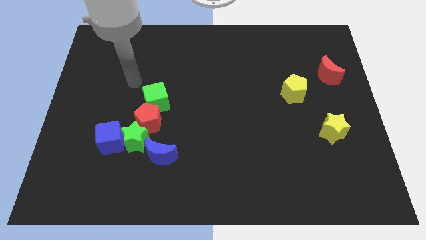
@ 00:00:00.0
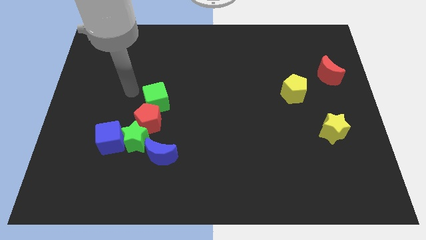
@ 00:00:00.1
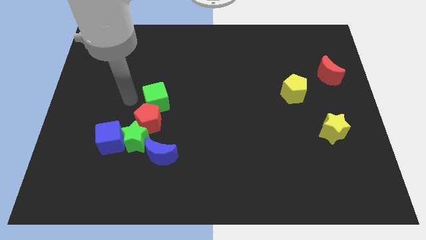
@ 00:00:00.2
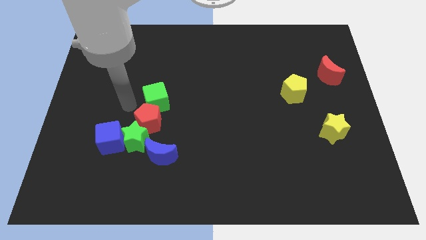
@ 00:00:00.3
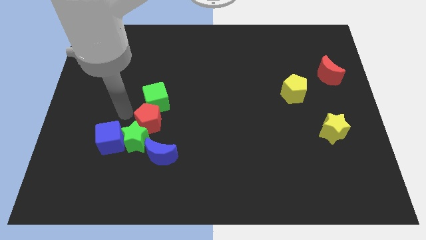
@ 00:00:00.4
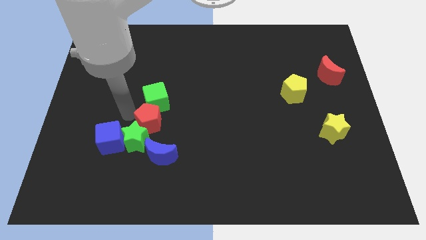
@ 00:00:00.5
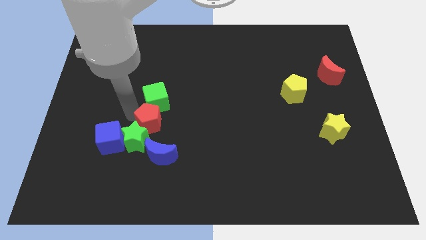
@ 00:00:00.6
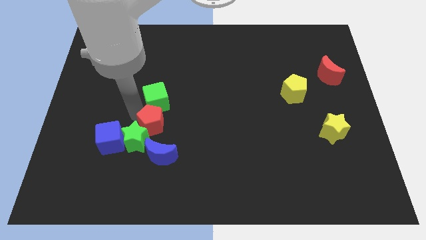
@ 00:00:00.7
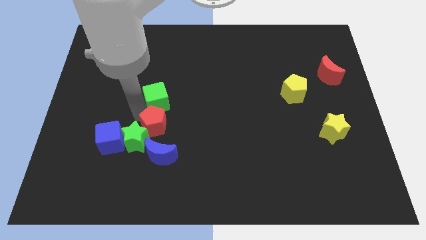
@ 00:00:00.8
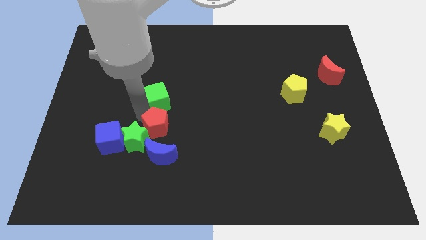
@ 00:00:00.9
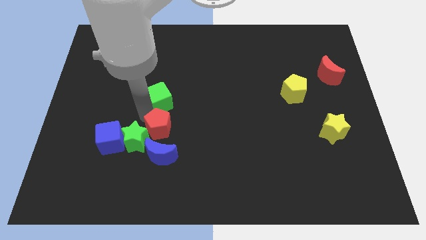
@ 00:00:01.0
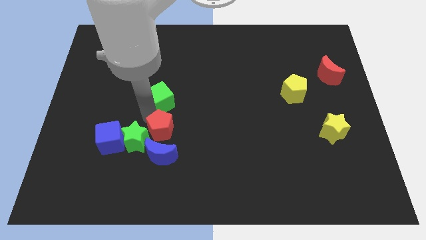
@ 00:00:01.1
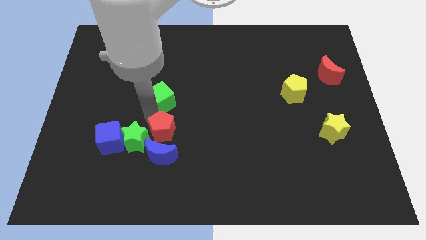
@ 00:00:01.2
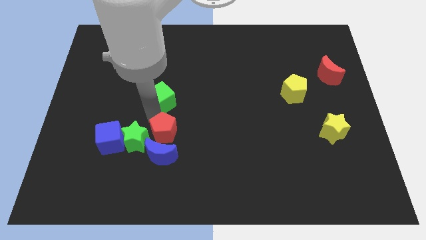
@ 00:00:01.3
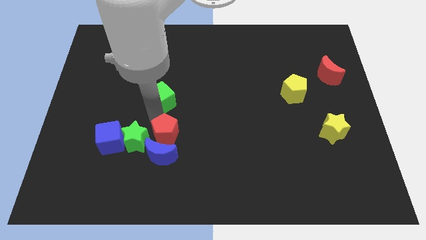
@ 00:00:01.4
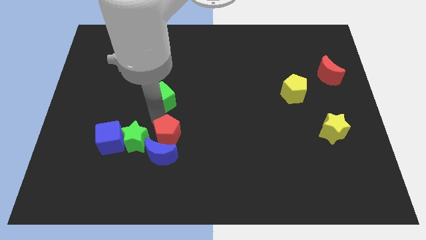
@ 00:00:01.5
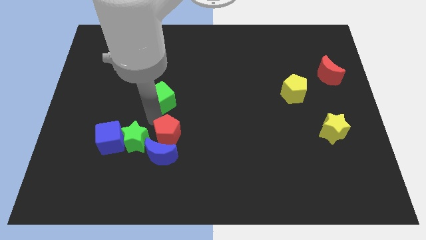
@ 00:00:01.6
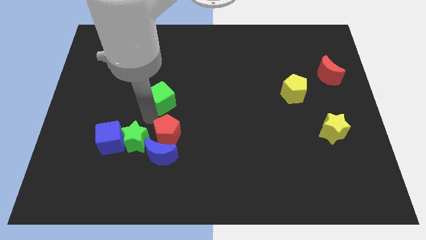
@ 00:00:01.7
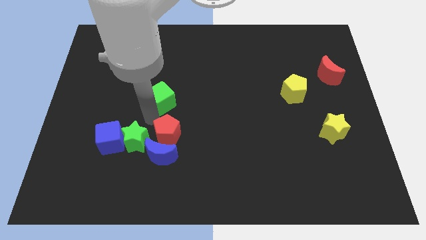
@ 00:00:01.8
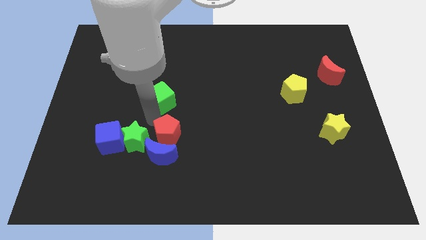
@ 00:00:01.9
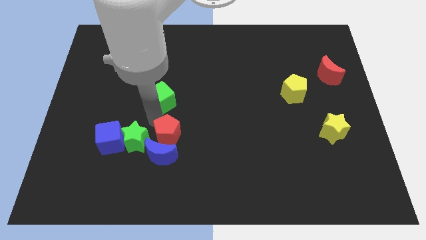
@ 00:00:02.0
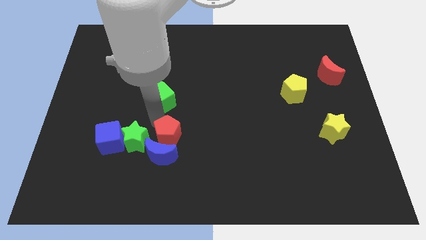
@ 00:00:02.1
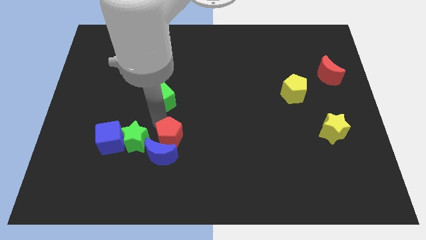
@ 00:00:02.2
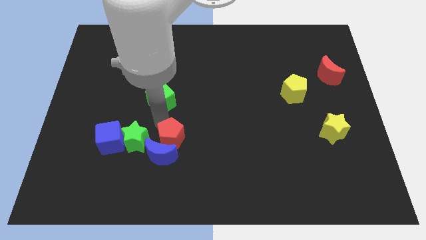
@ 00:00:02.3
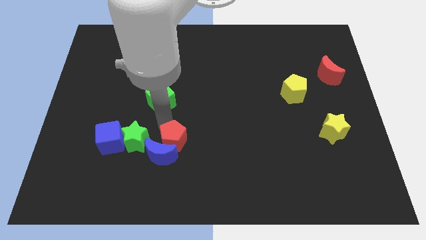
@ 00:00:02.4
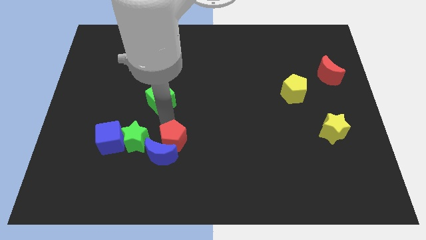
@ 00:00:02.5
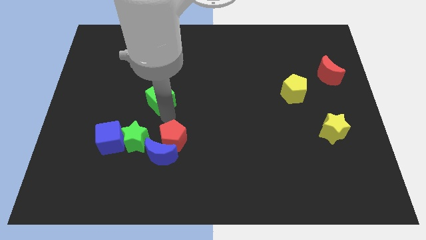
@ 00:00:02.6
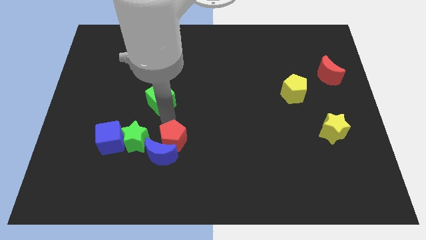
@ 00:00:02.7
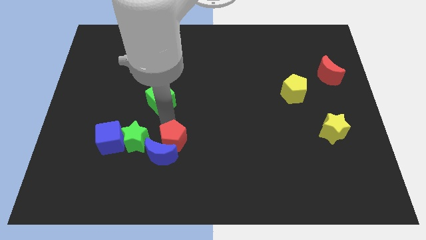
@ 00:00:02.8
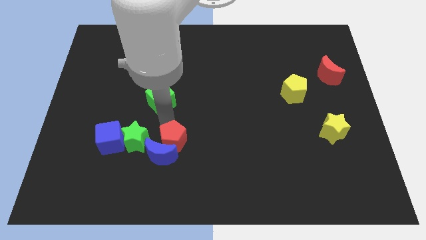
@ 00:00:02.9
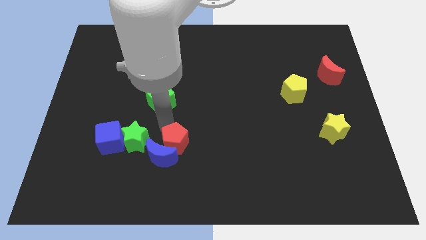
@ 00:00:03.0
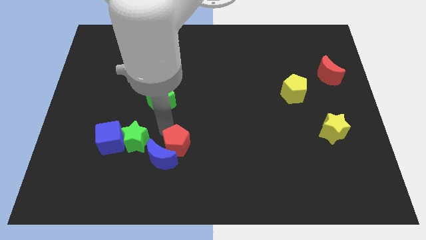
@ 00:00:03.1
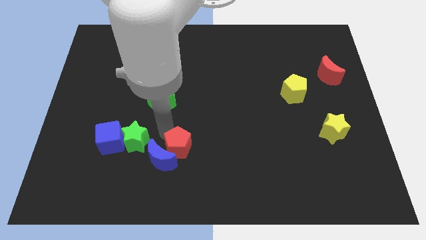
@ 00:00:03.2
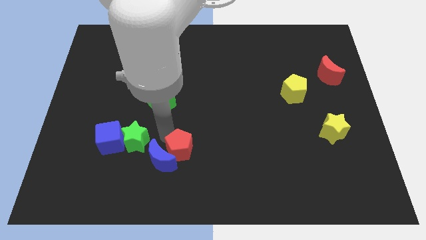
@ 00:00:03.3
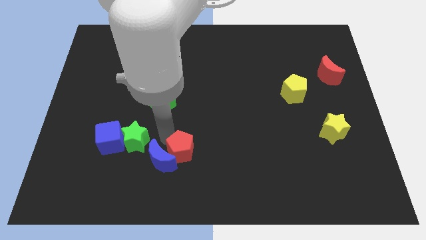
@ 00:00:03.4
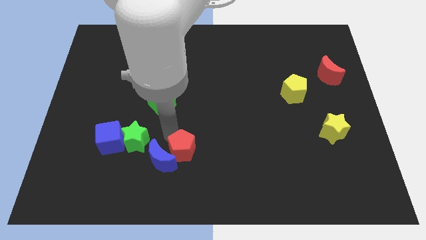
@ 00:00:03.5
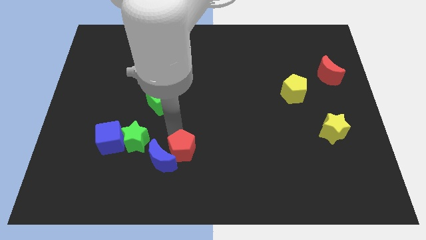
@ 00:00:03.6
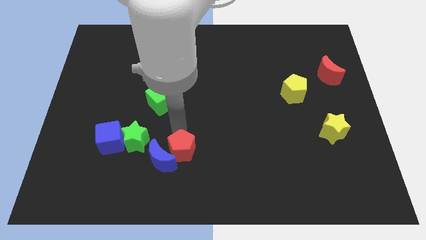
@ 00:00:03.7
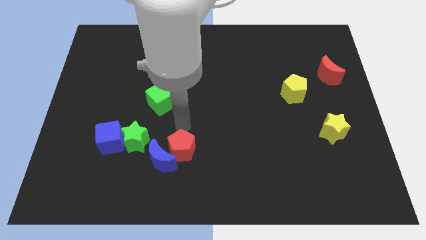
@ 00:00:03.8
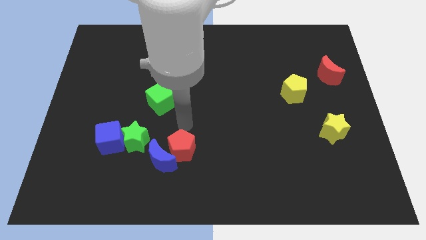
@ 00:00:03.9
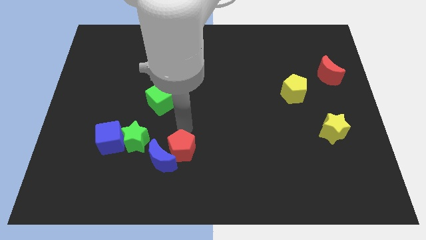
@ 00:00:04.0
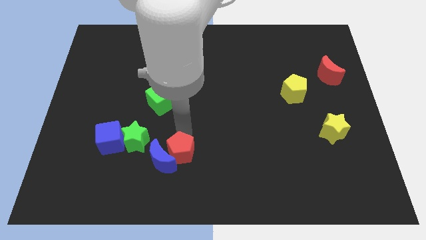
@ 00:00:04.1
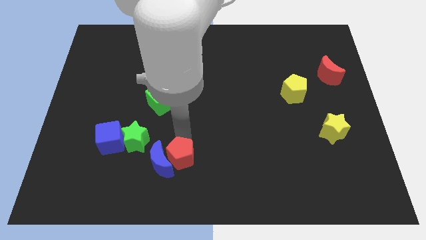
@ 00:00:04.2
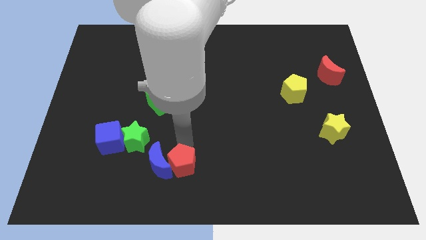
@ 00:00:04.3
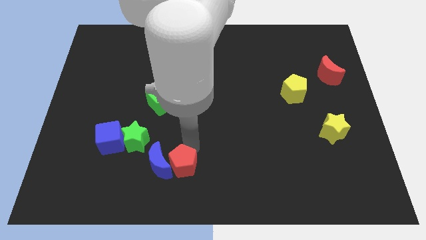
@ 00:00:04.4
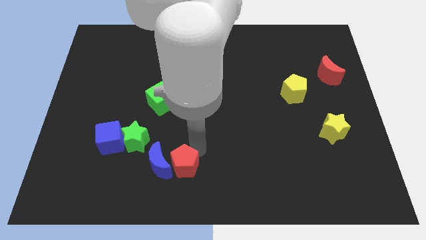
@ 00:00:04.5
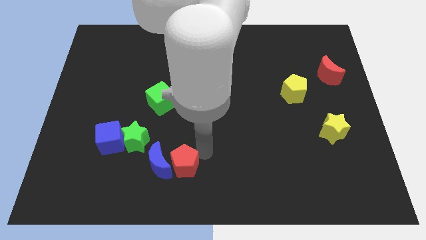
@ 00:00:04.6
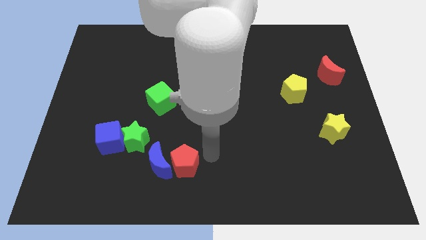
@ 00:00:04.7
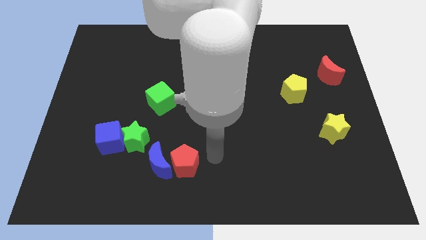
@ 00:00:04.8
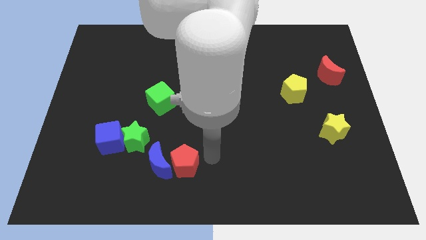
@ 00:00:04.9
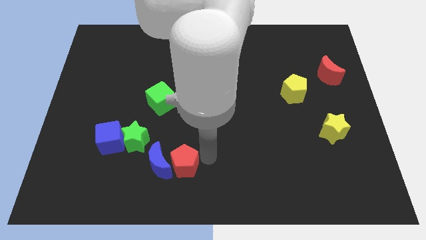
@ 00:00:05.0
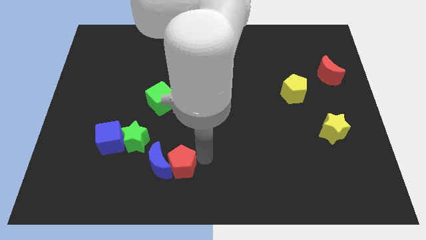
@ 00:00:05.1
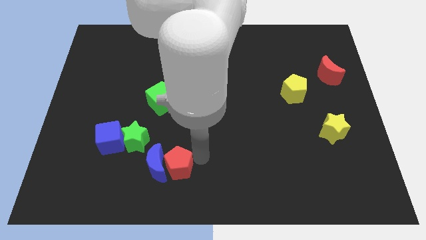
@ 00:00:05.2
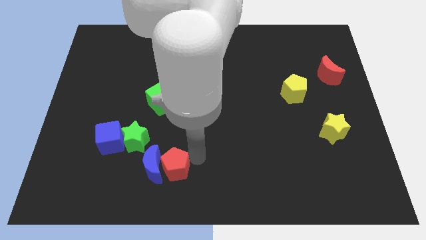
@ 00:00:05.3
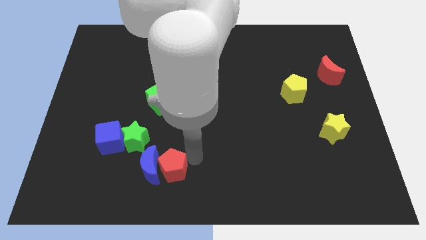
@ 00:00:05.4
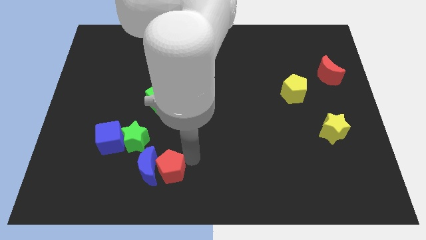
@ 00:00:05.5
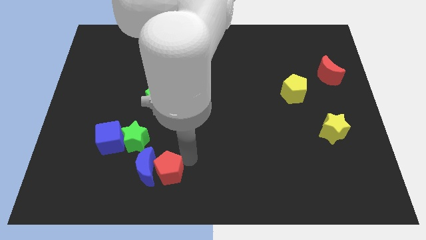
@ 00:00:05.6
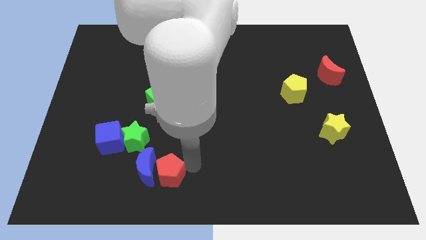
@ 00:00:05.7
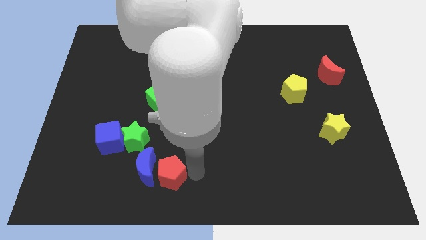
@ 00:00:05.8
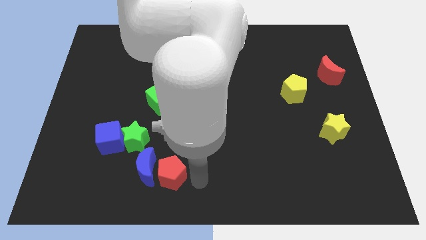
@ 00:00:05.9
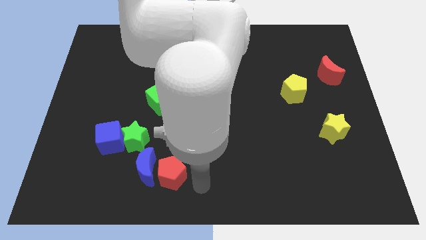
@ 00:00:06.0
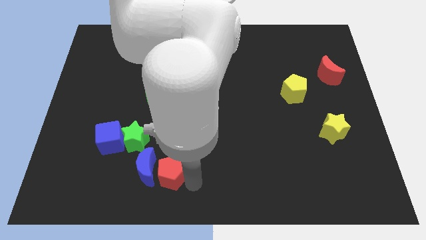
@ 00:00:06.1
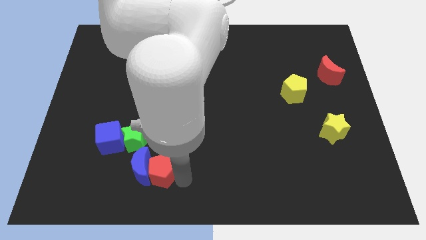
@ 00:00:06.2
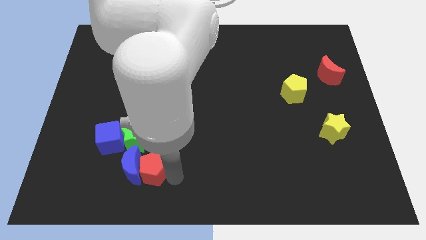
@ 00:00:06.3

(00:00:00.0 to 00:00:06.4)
put the red pentagon to the bottom right side of the blue cube

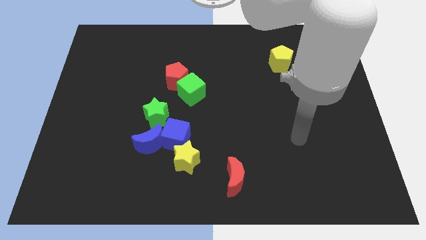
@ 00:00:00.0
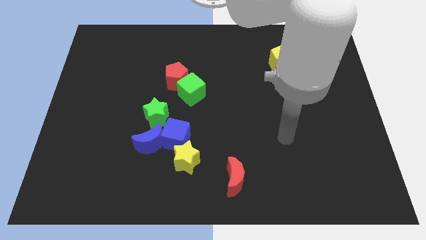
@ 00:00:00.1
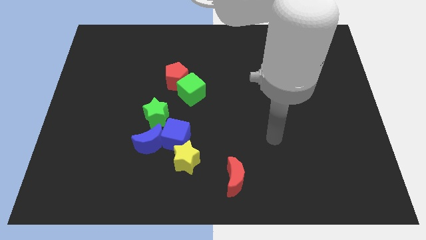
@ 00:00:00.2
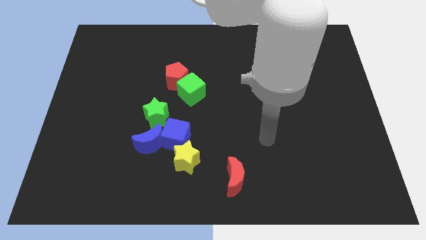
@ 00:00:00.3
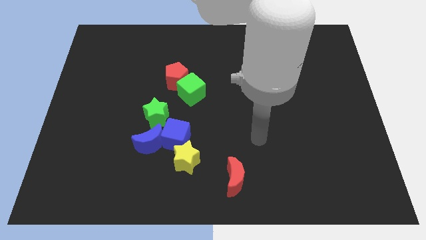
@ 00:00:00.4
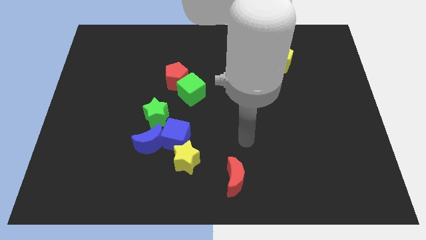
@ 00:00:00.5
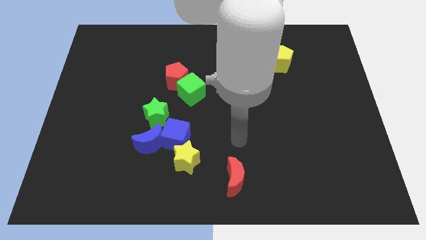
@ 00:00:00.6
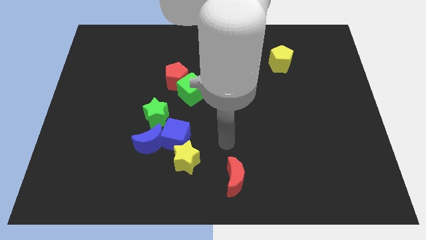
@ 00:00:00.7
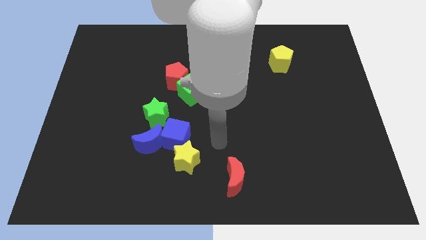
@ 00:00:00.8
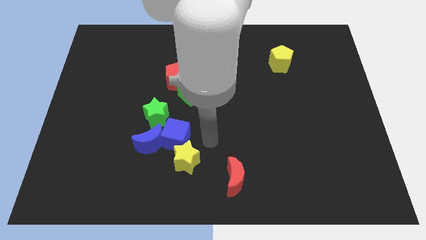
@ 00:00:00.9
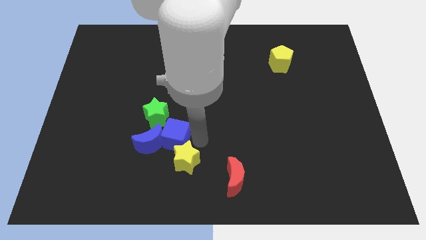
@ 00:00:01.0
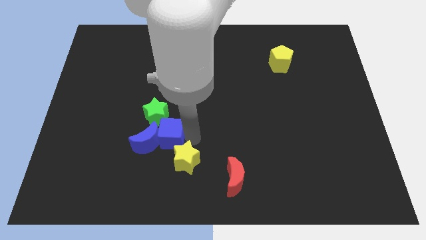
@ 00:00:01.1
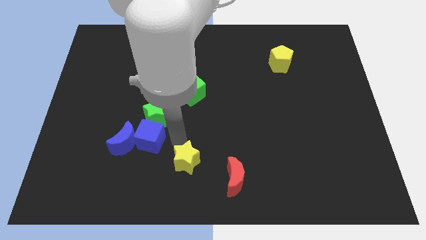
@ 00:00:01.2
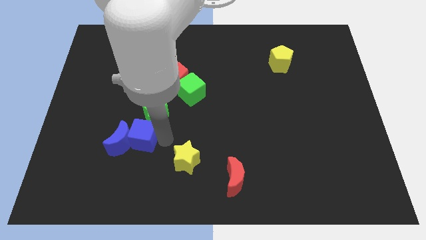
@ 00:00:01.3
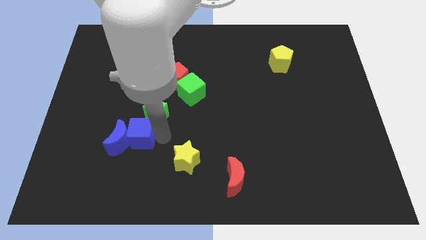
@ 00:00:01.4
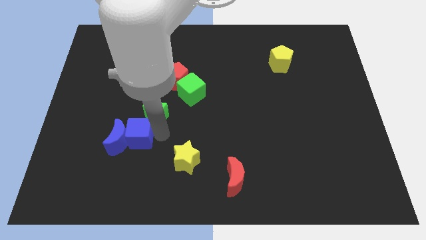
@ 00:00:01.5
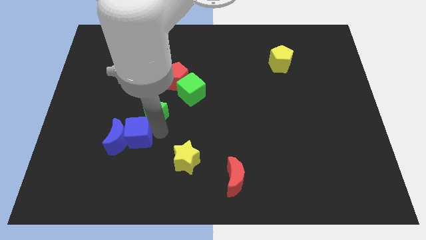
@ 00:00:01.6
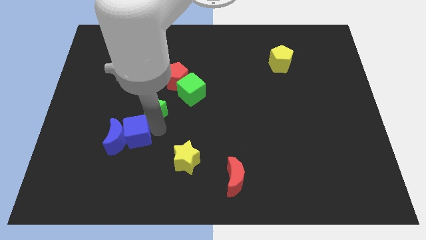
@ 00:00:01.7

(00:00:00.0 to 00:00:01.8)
slide the green star to the bottom left side of the red pentagon

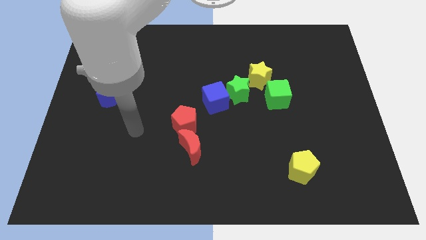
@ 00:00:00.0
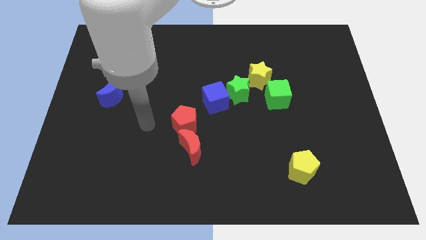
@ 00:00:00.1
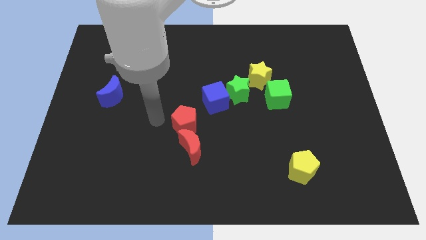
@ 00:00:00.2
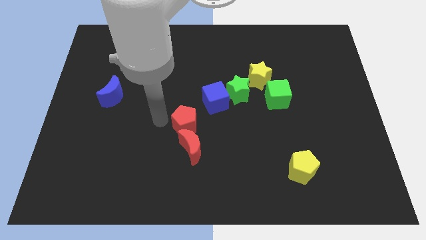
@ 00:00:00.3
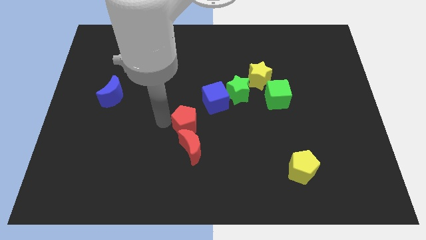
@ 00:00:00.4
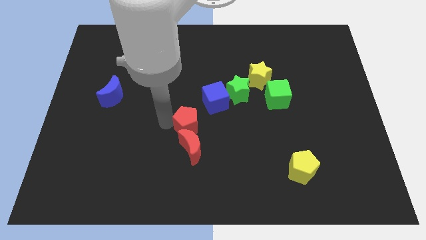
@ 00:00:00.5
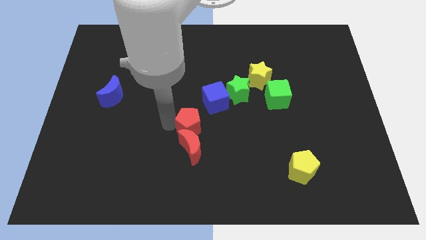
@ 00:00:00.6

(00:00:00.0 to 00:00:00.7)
put the red pentagon to the top right side of the red moon
